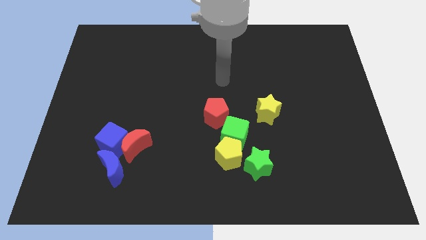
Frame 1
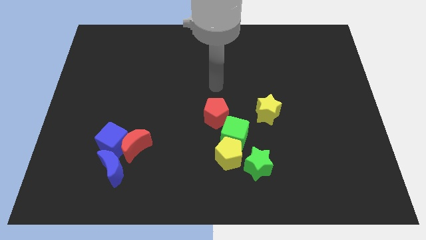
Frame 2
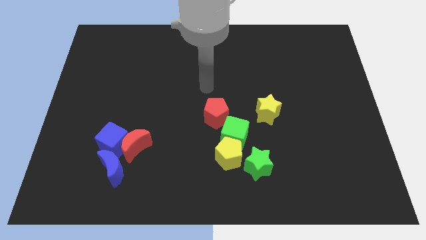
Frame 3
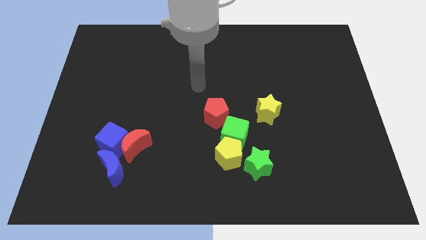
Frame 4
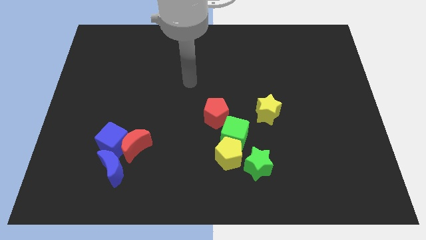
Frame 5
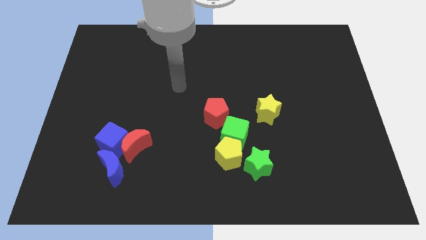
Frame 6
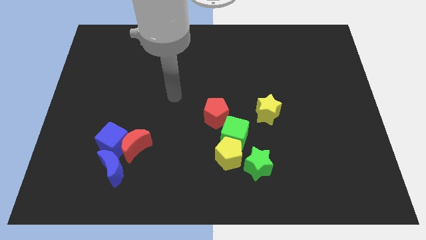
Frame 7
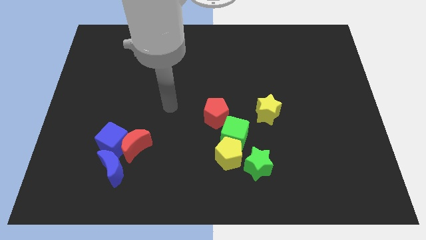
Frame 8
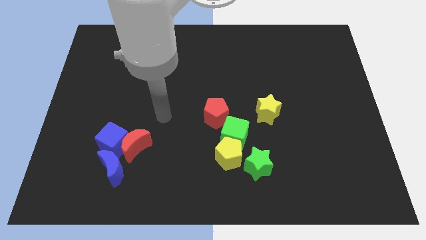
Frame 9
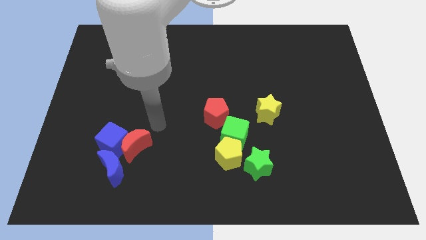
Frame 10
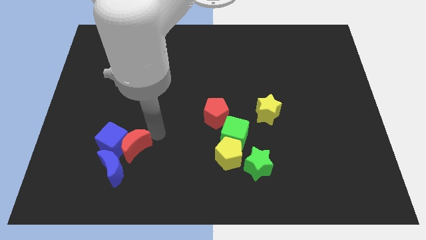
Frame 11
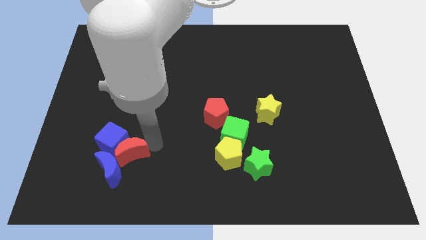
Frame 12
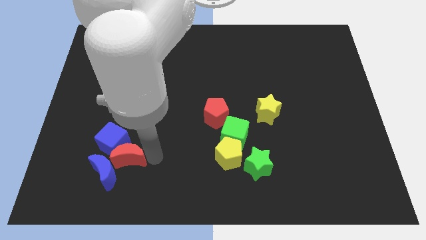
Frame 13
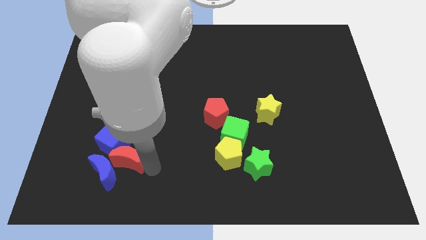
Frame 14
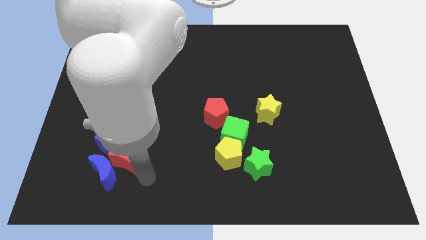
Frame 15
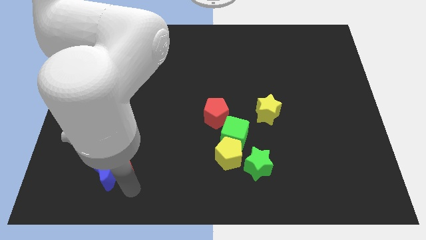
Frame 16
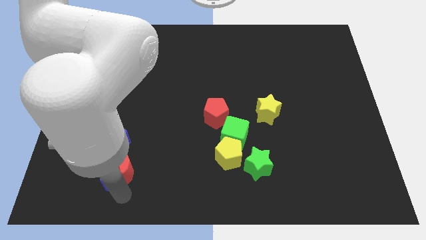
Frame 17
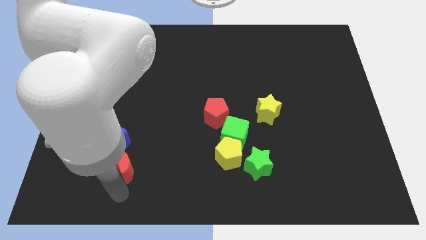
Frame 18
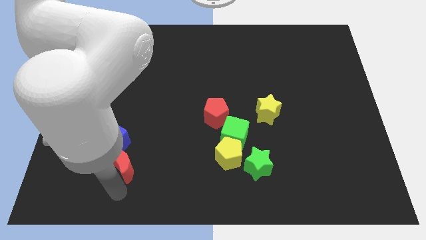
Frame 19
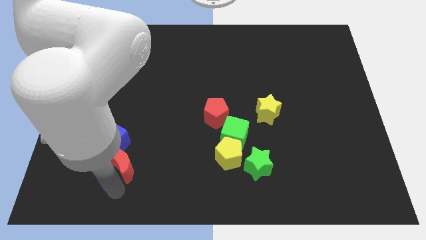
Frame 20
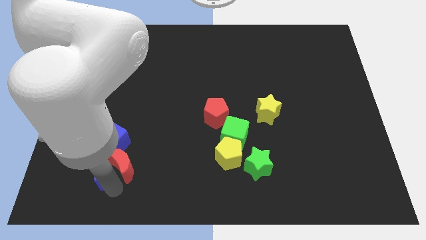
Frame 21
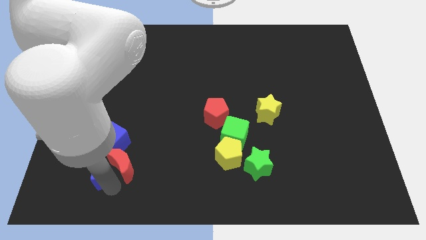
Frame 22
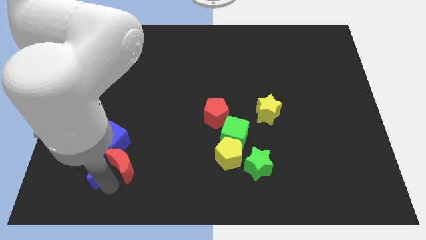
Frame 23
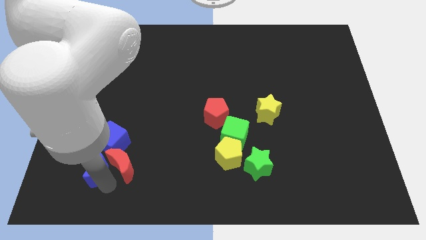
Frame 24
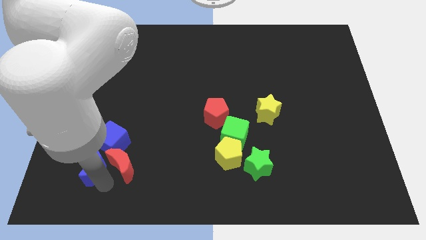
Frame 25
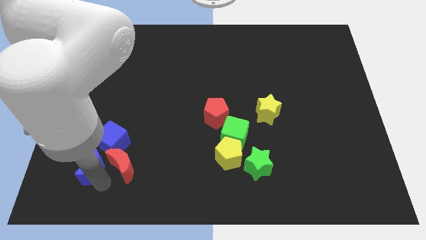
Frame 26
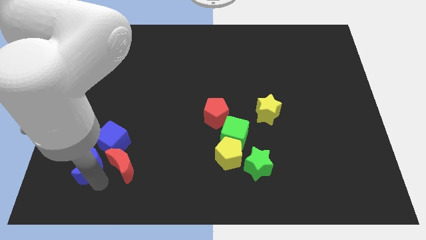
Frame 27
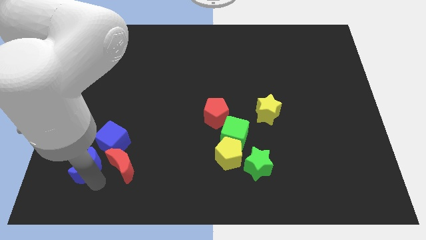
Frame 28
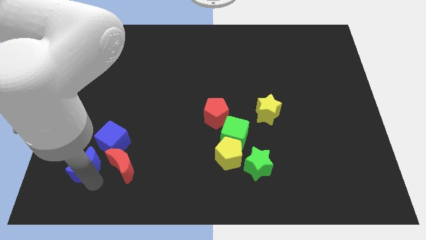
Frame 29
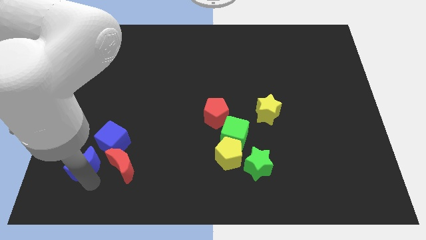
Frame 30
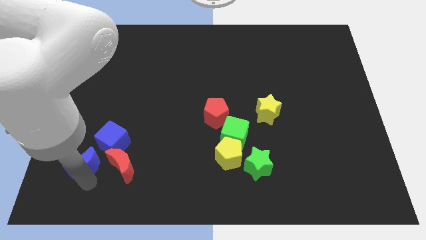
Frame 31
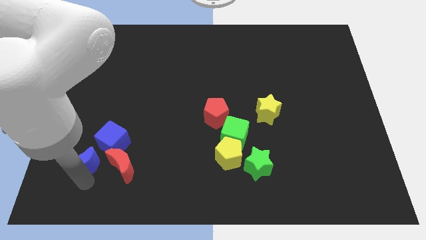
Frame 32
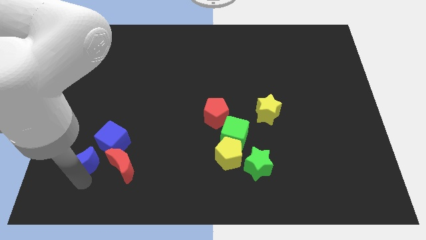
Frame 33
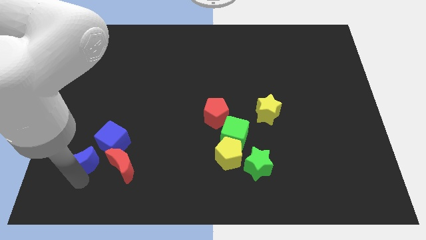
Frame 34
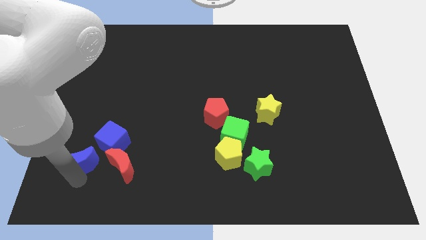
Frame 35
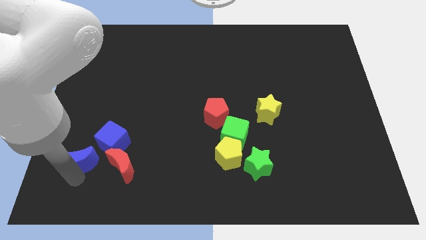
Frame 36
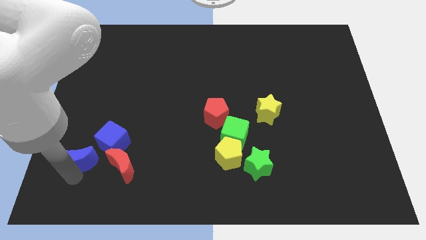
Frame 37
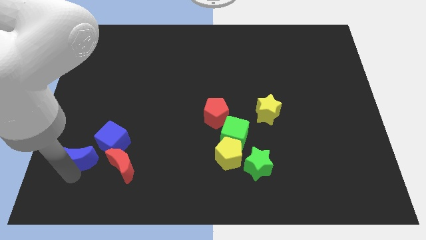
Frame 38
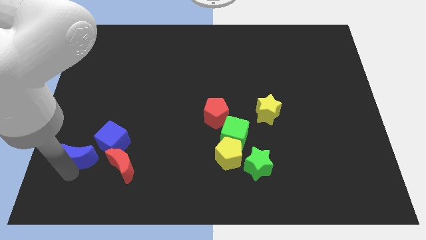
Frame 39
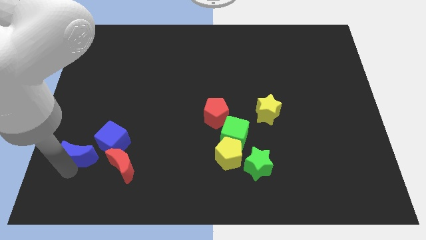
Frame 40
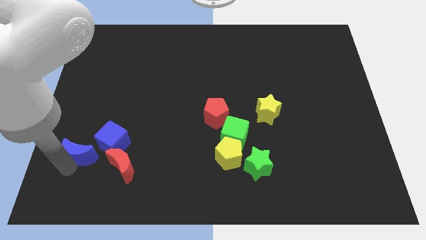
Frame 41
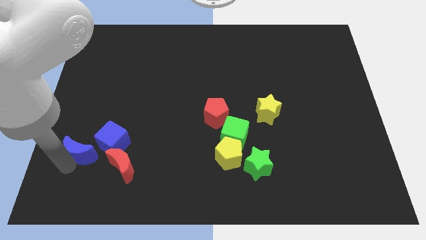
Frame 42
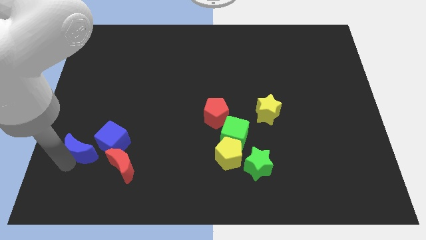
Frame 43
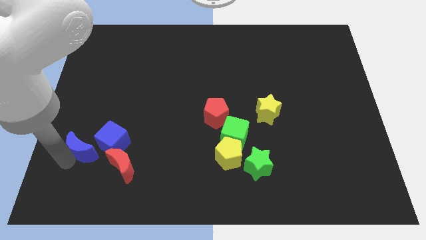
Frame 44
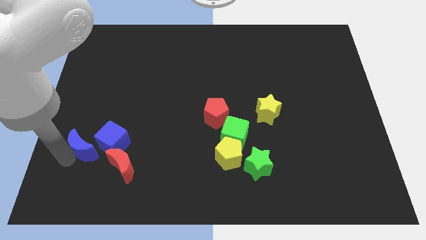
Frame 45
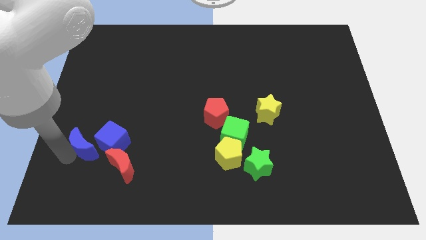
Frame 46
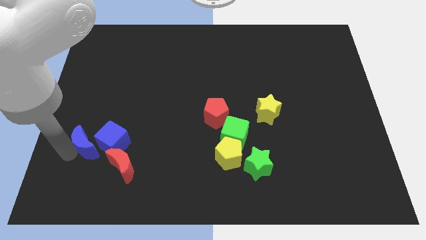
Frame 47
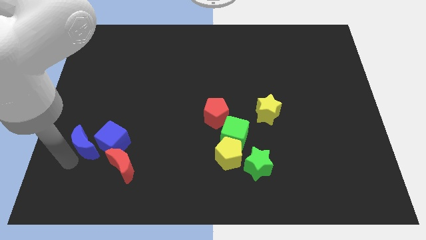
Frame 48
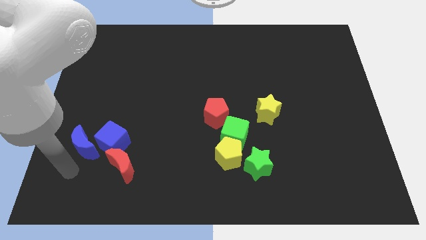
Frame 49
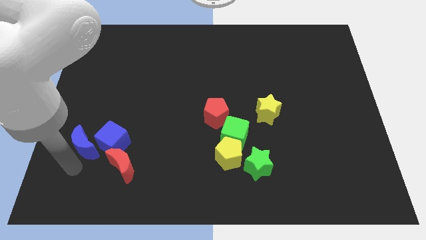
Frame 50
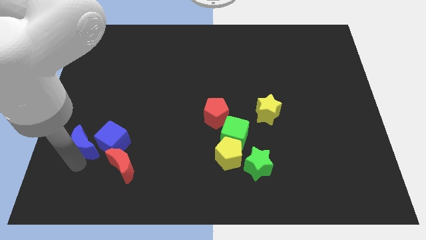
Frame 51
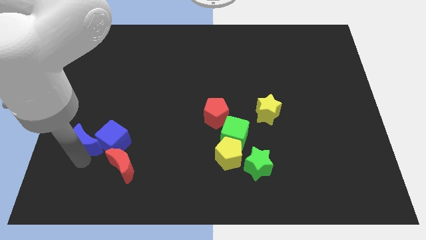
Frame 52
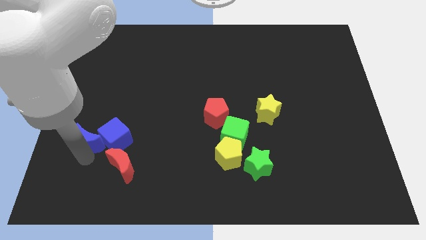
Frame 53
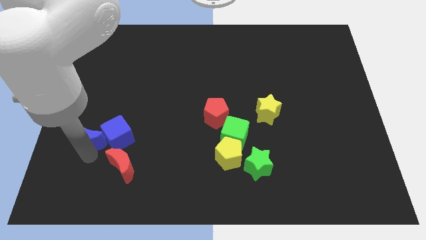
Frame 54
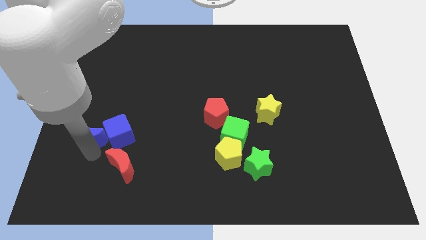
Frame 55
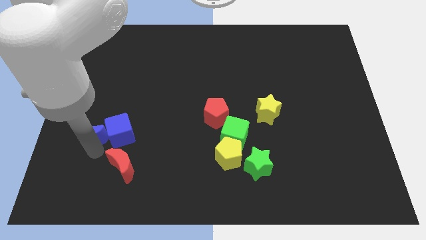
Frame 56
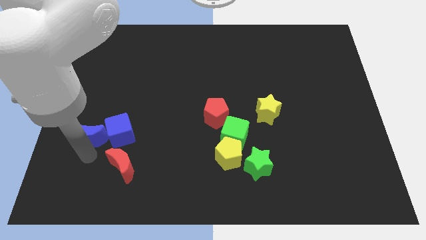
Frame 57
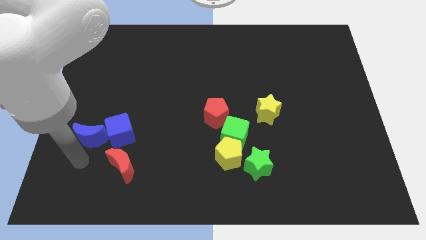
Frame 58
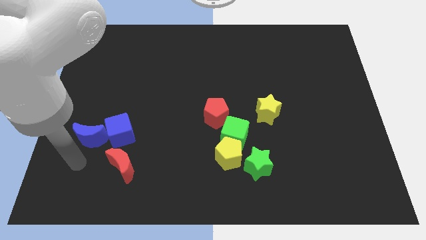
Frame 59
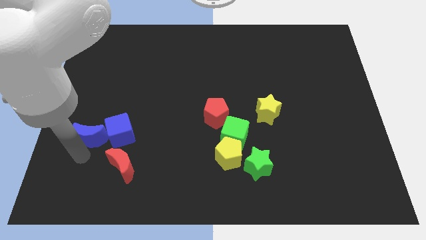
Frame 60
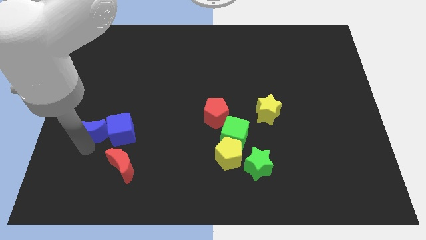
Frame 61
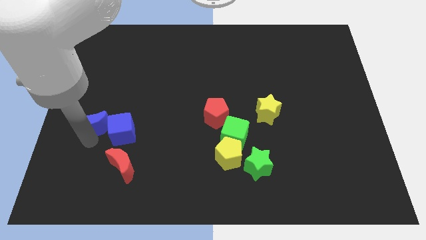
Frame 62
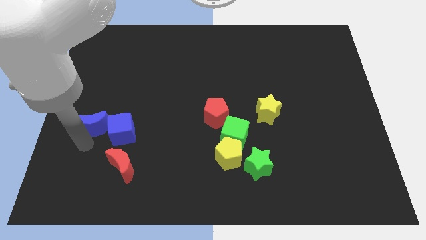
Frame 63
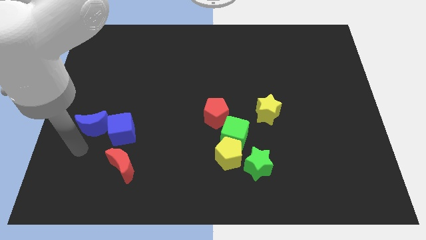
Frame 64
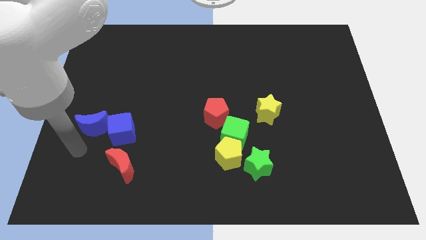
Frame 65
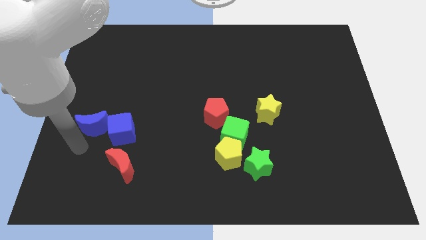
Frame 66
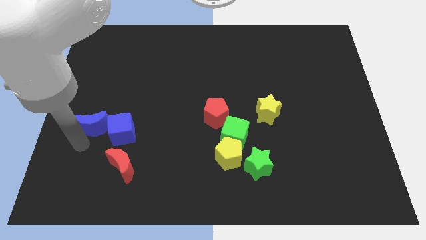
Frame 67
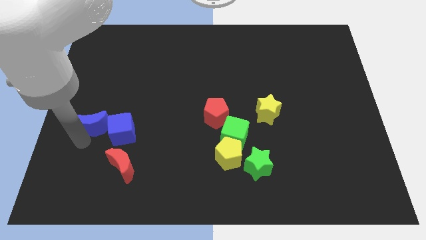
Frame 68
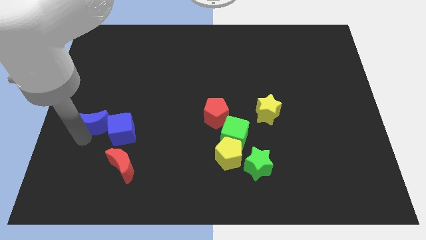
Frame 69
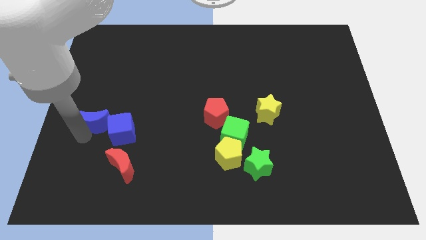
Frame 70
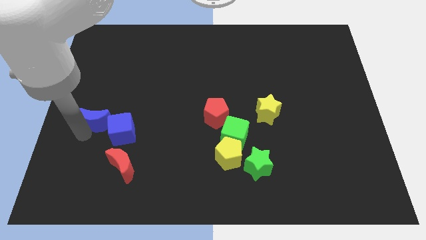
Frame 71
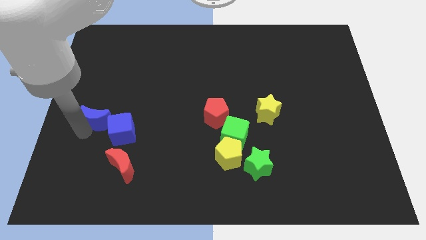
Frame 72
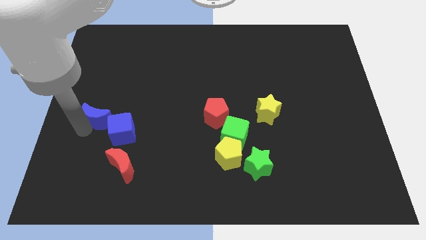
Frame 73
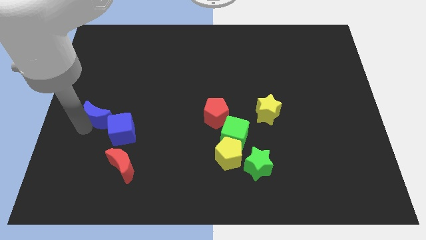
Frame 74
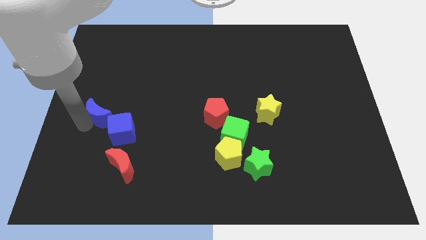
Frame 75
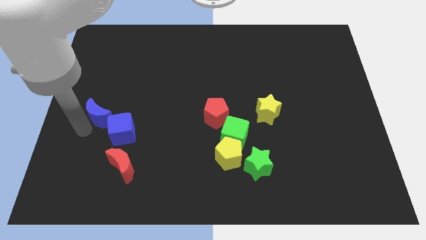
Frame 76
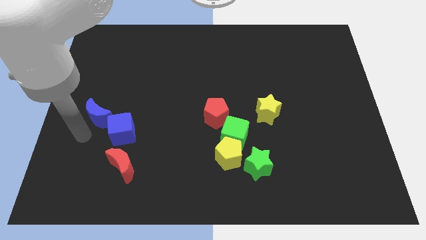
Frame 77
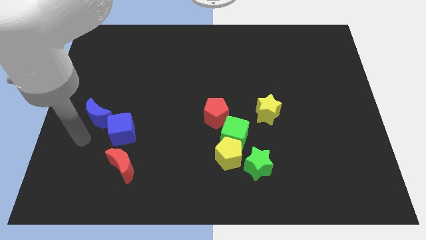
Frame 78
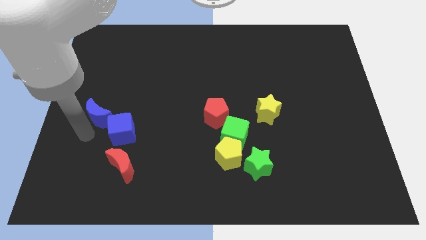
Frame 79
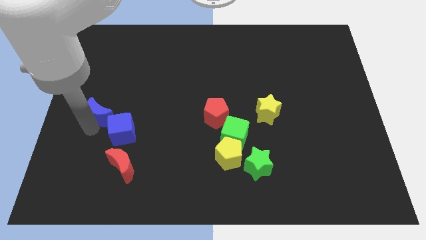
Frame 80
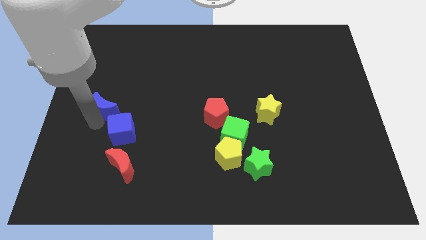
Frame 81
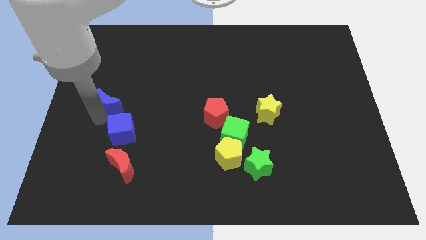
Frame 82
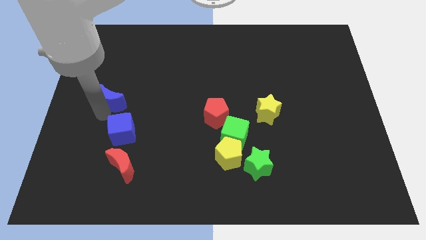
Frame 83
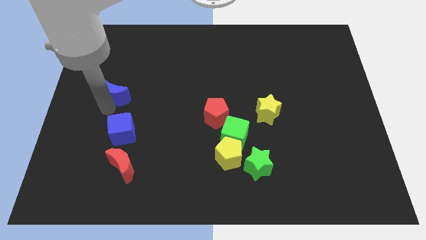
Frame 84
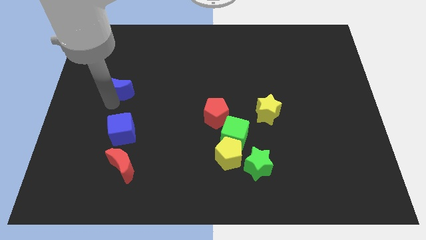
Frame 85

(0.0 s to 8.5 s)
move the blue moon upwards
